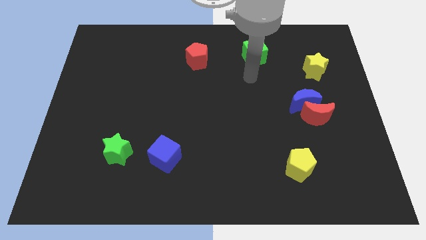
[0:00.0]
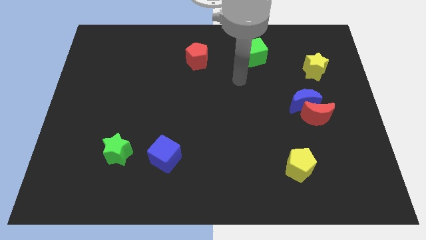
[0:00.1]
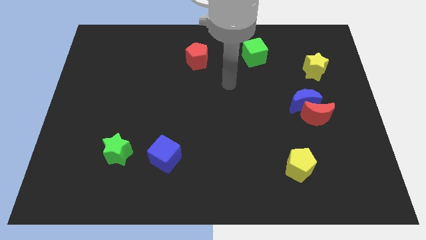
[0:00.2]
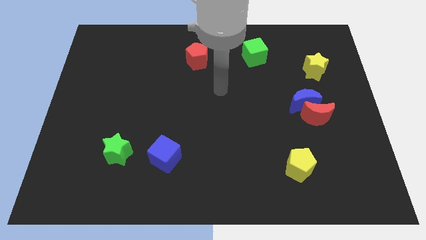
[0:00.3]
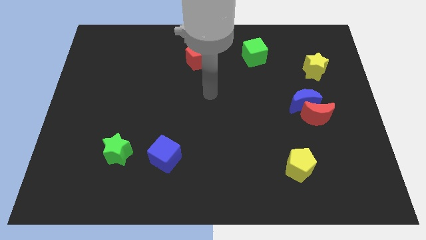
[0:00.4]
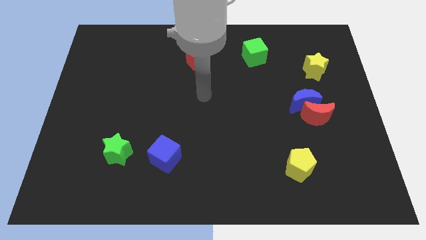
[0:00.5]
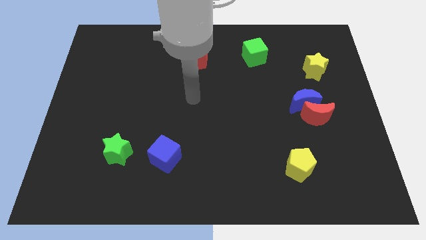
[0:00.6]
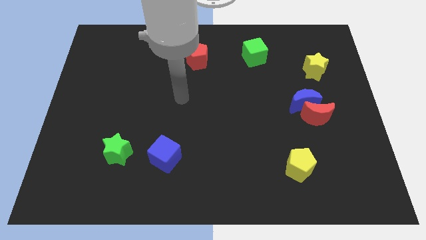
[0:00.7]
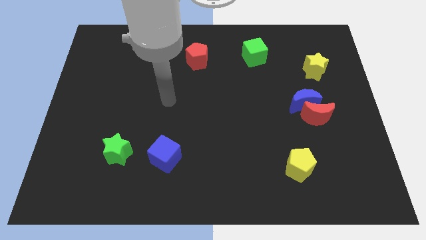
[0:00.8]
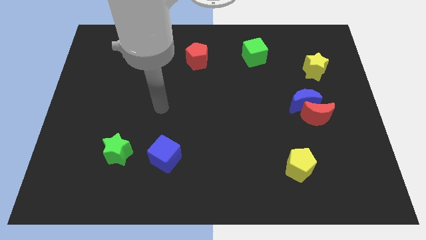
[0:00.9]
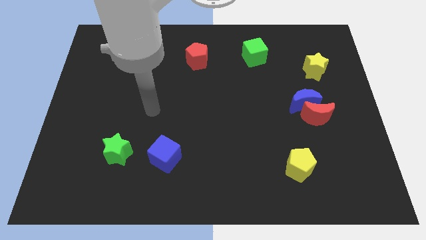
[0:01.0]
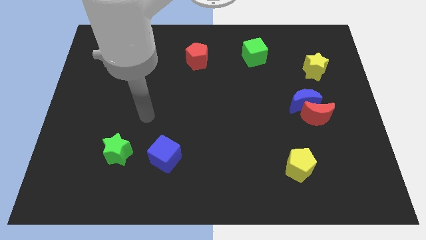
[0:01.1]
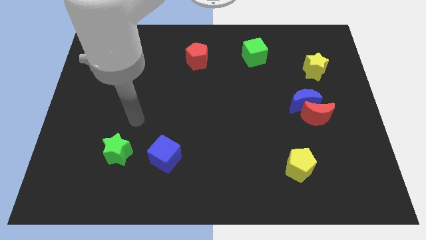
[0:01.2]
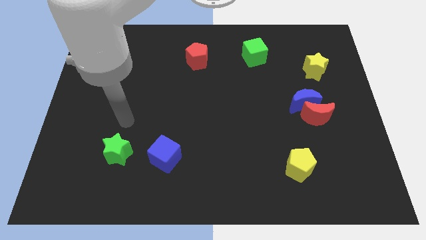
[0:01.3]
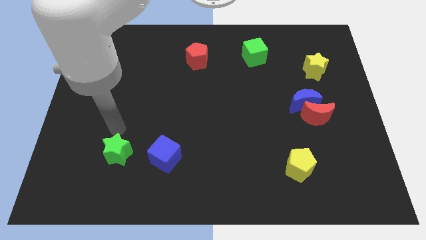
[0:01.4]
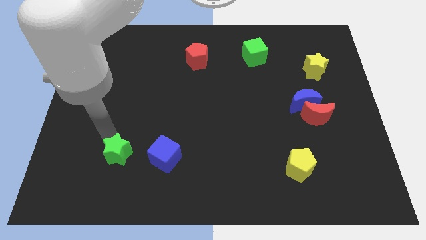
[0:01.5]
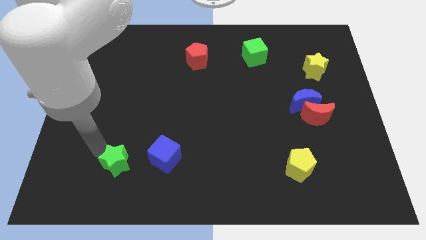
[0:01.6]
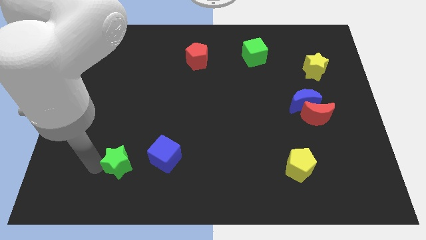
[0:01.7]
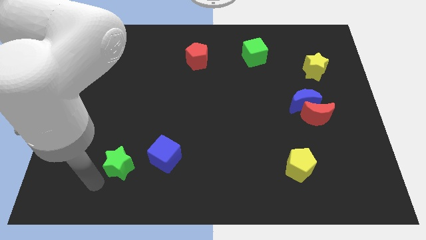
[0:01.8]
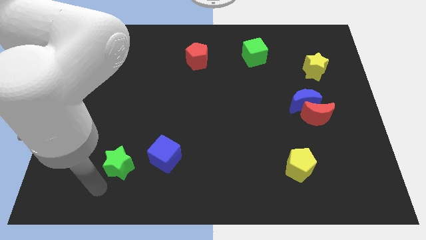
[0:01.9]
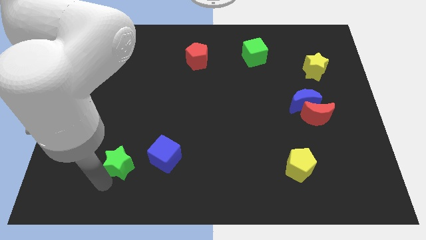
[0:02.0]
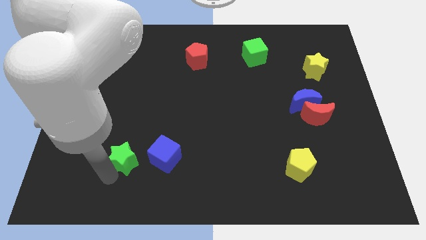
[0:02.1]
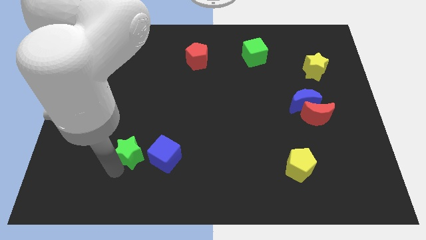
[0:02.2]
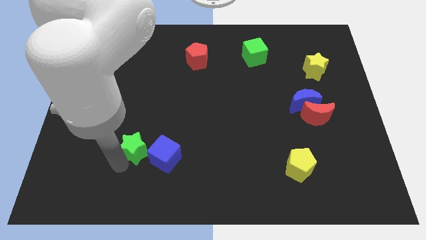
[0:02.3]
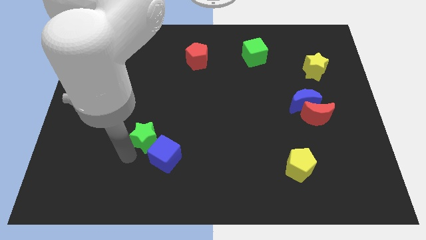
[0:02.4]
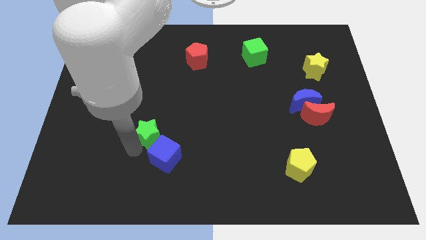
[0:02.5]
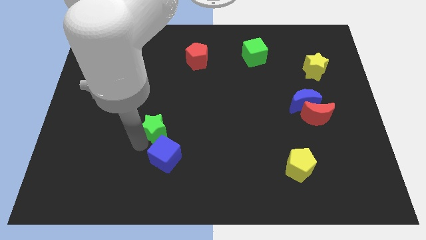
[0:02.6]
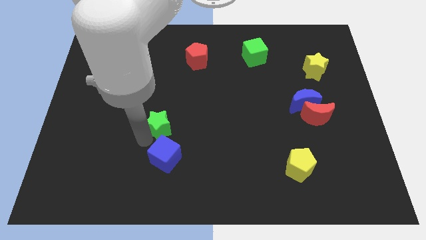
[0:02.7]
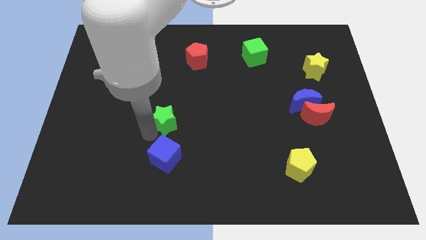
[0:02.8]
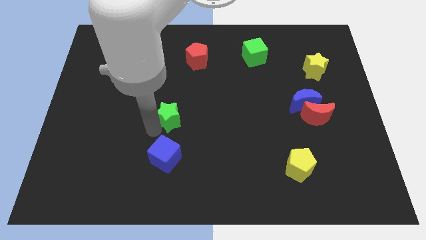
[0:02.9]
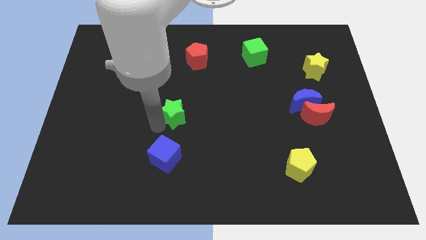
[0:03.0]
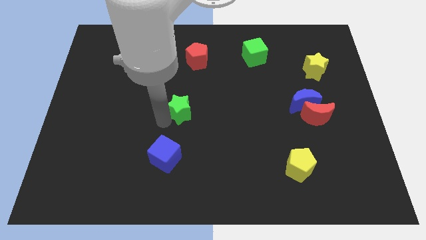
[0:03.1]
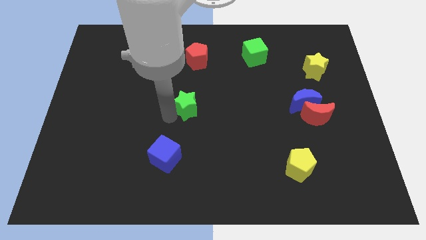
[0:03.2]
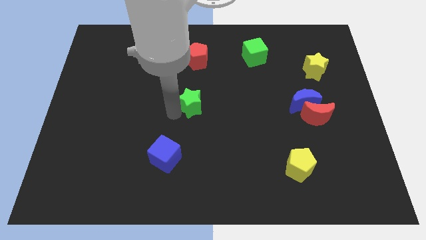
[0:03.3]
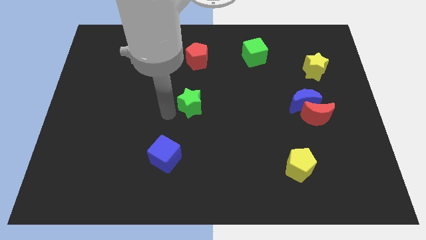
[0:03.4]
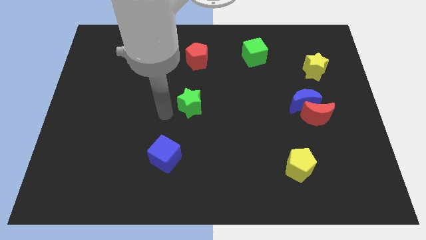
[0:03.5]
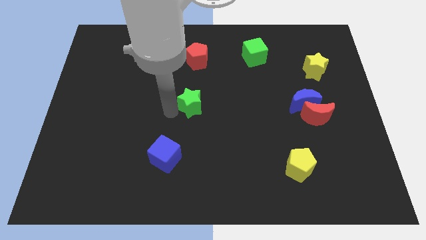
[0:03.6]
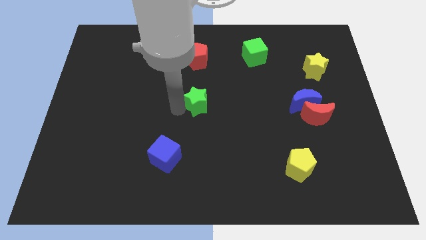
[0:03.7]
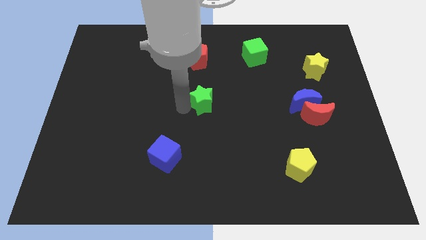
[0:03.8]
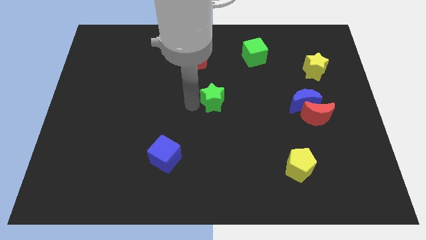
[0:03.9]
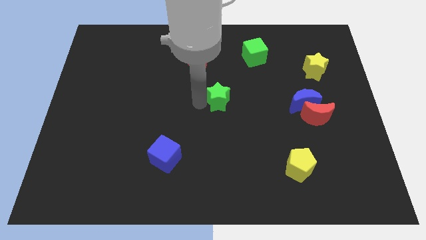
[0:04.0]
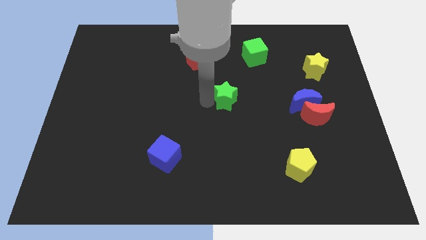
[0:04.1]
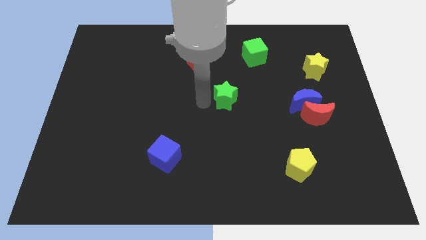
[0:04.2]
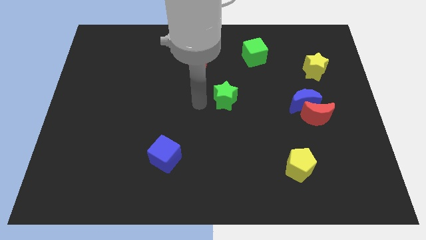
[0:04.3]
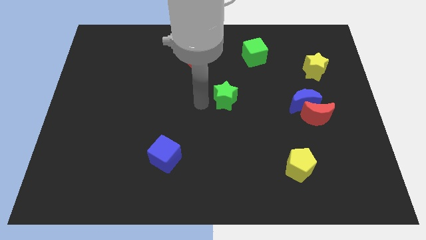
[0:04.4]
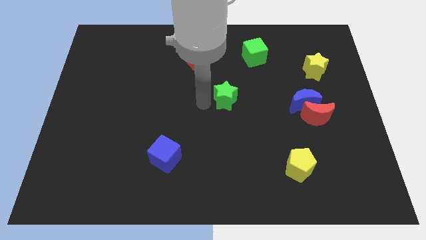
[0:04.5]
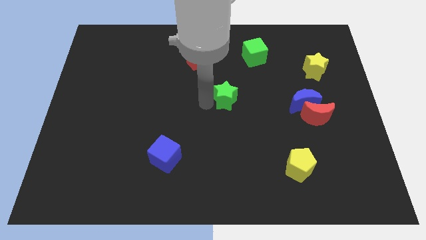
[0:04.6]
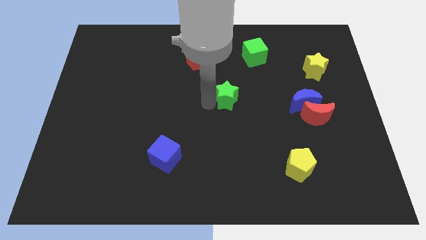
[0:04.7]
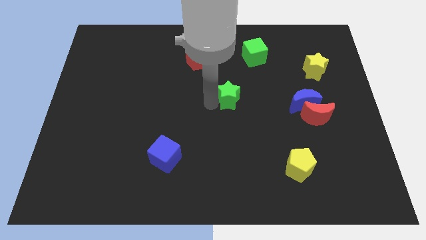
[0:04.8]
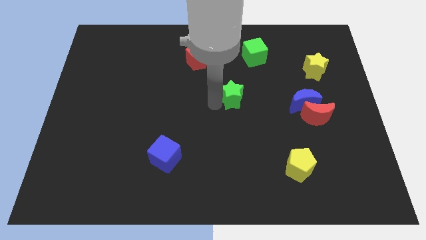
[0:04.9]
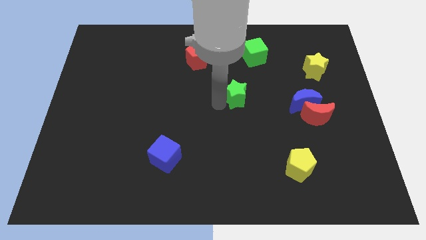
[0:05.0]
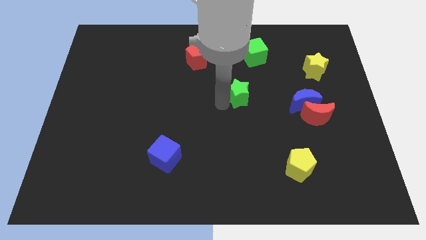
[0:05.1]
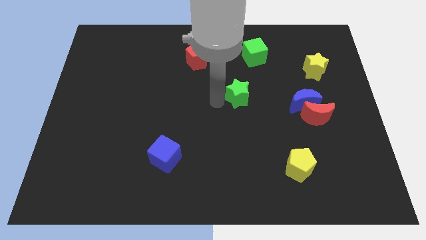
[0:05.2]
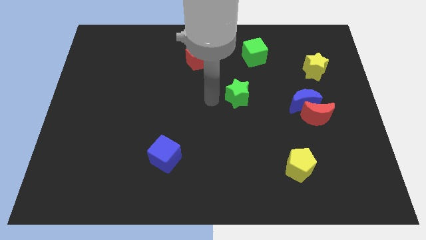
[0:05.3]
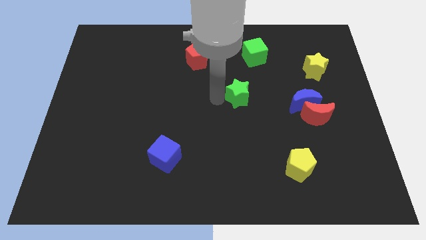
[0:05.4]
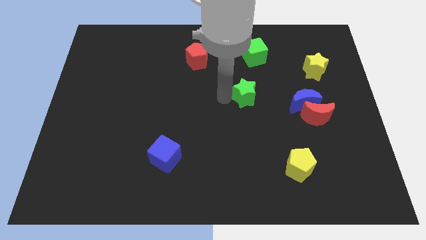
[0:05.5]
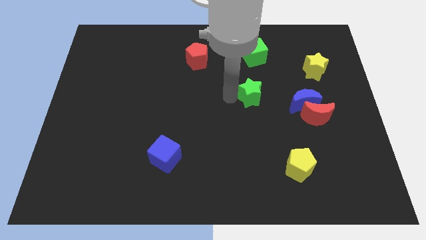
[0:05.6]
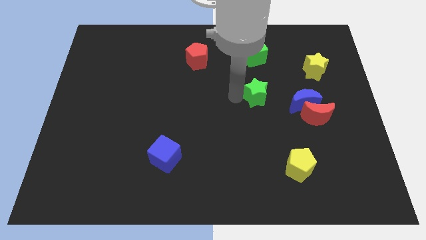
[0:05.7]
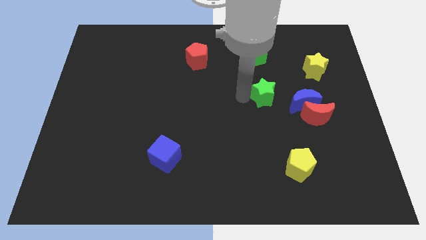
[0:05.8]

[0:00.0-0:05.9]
put the green star diagonally up and to the left of the blue moon

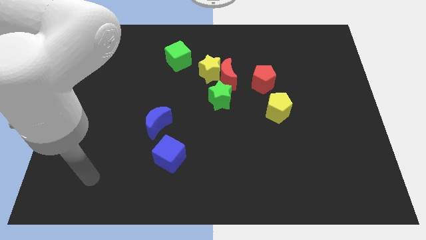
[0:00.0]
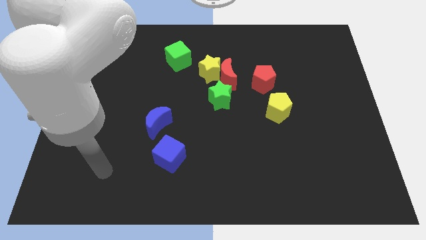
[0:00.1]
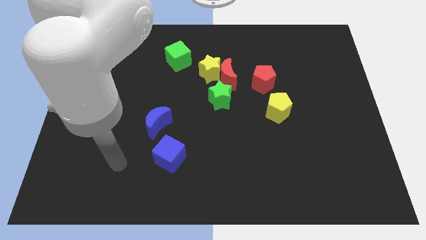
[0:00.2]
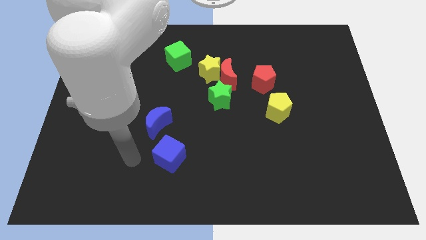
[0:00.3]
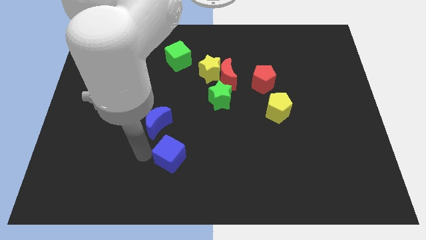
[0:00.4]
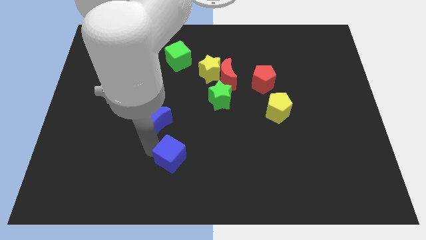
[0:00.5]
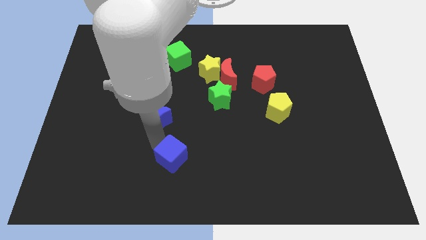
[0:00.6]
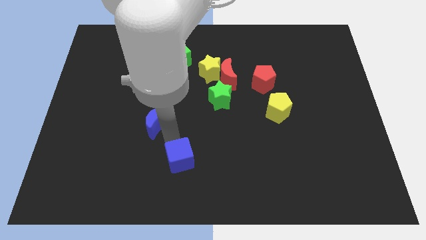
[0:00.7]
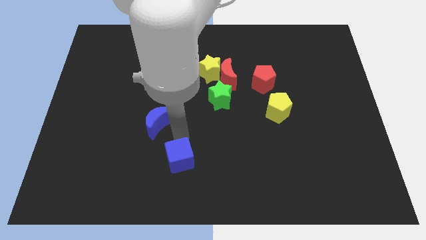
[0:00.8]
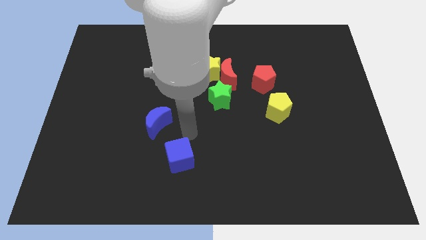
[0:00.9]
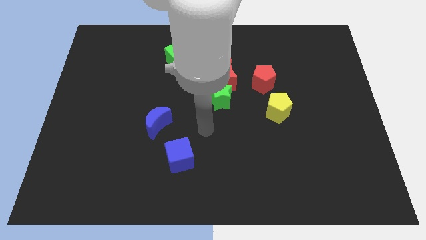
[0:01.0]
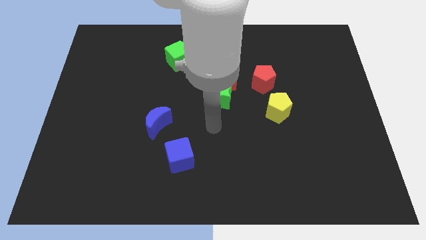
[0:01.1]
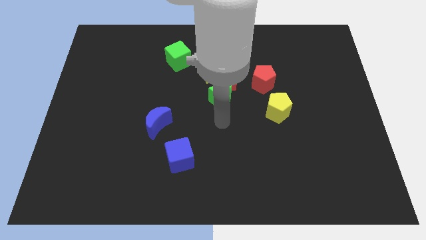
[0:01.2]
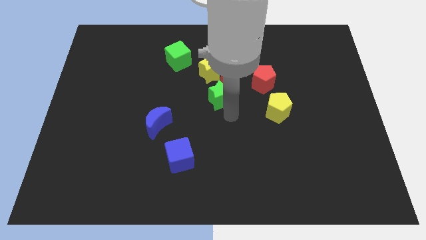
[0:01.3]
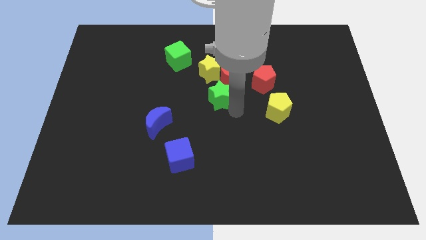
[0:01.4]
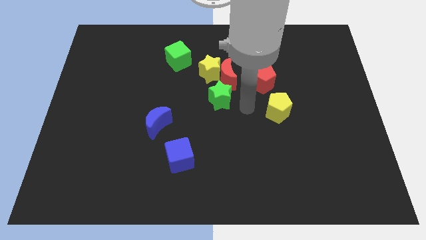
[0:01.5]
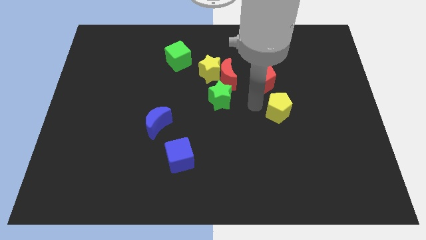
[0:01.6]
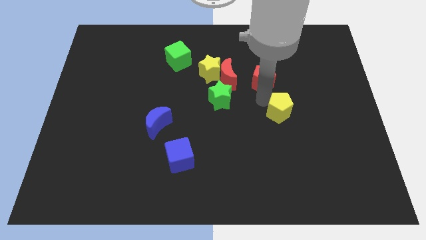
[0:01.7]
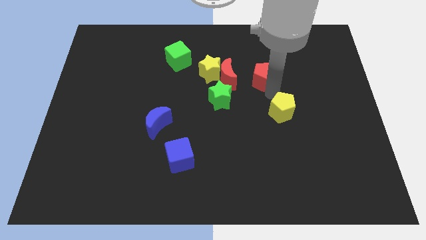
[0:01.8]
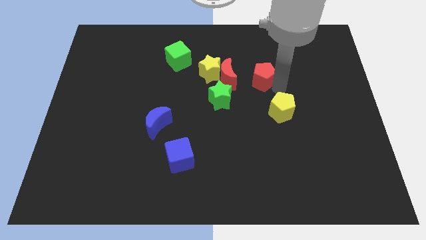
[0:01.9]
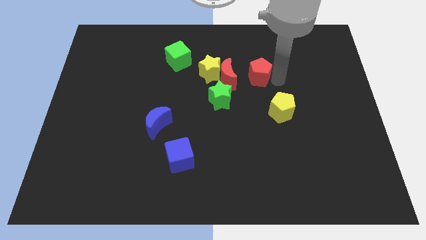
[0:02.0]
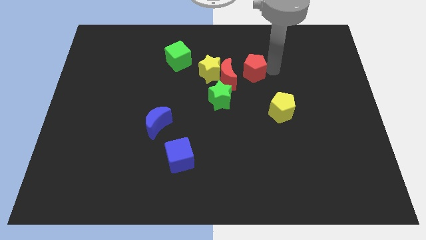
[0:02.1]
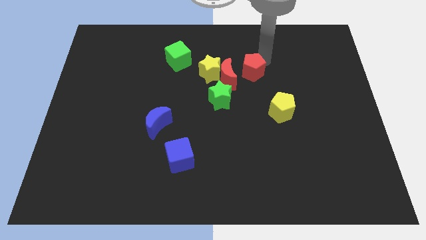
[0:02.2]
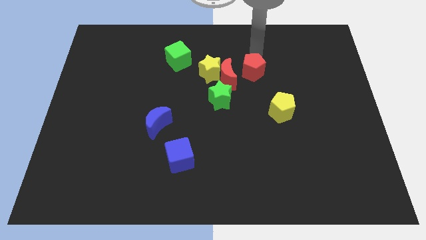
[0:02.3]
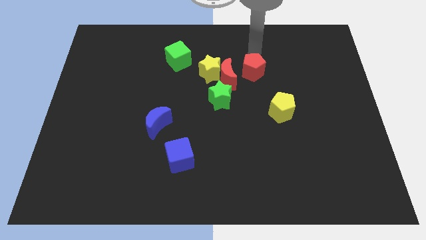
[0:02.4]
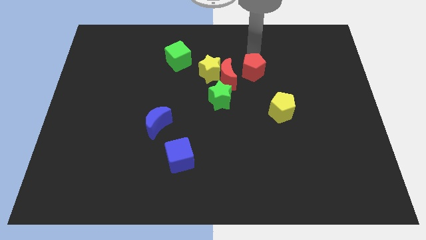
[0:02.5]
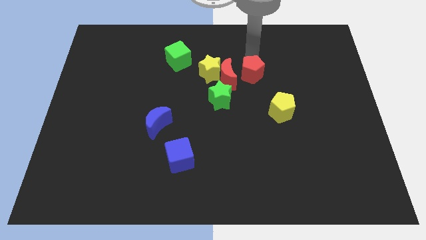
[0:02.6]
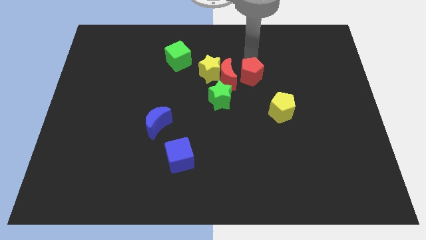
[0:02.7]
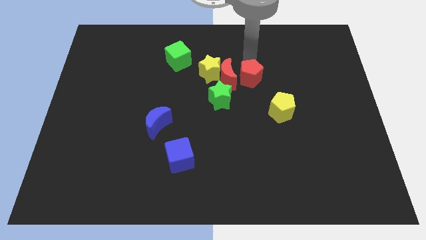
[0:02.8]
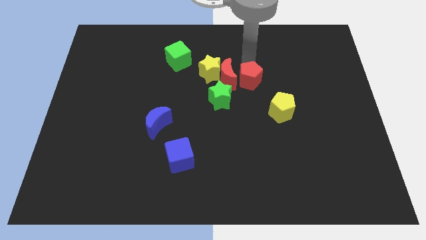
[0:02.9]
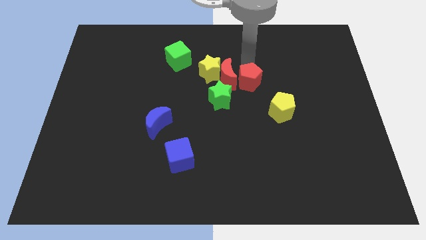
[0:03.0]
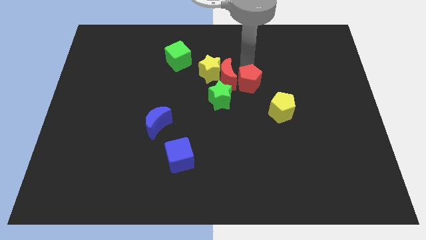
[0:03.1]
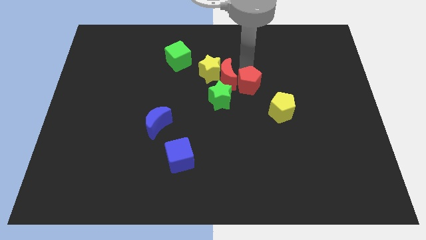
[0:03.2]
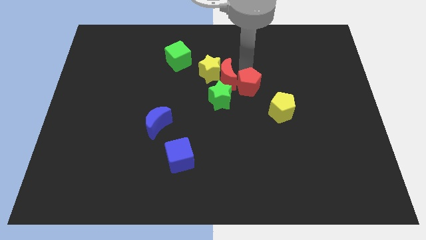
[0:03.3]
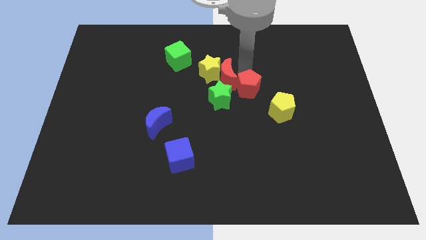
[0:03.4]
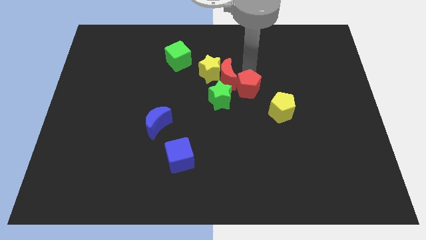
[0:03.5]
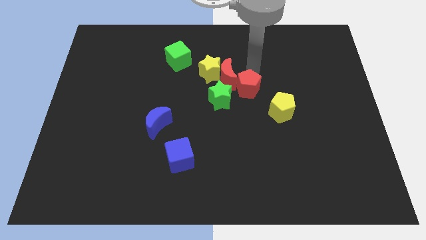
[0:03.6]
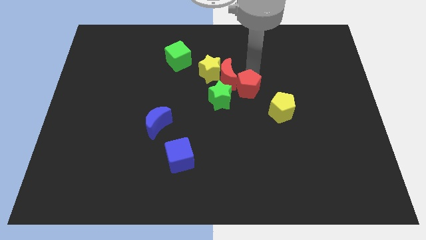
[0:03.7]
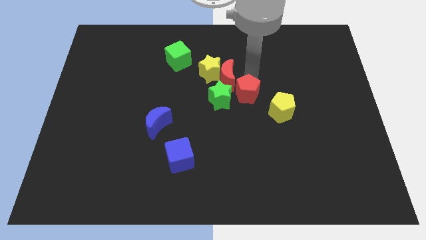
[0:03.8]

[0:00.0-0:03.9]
push the red pentagon below the red moon
